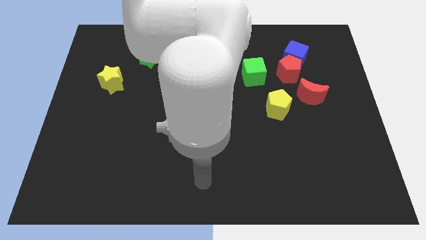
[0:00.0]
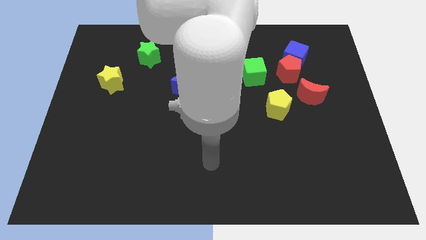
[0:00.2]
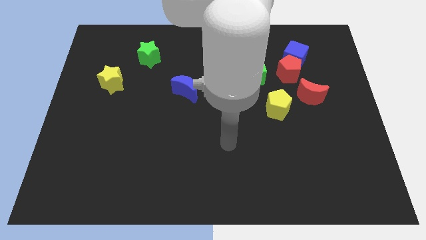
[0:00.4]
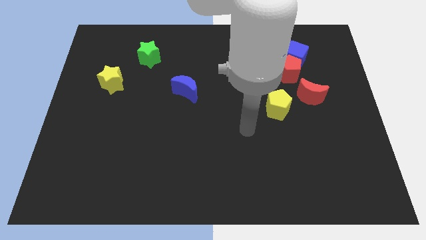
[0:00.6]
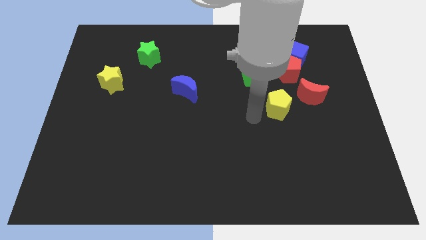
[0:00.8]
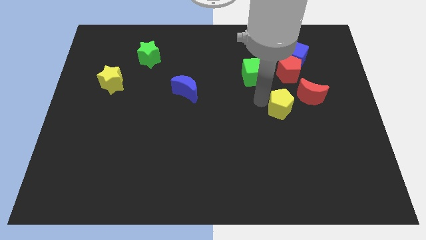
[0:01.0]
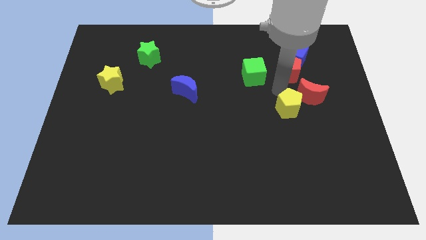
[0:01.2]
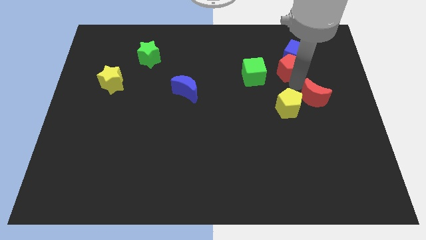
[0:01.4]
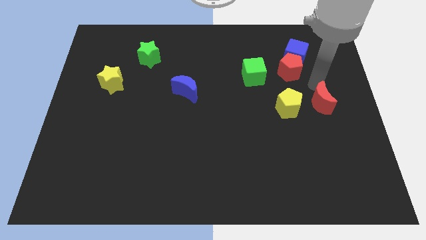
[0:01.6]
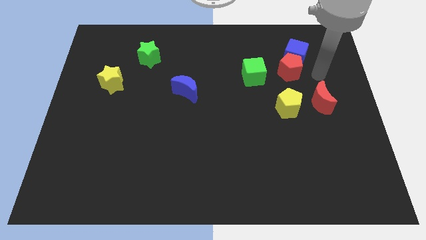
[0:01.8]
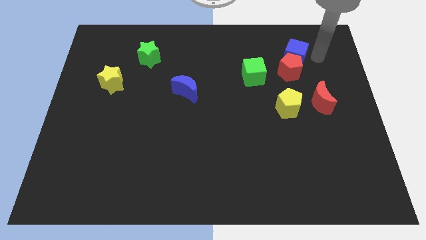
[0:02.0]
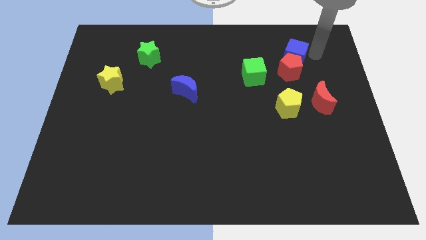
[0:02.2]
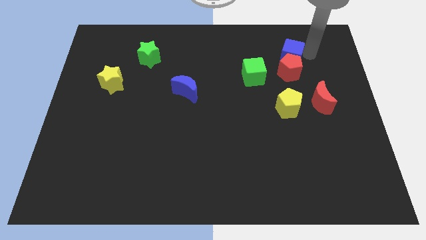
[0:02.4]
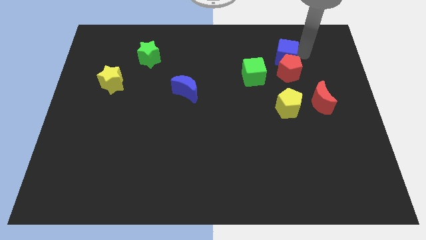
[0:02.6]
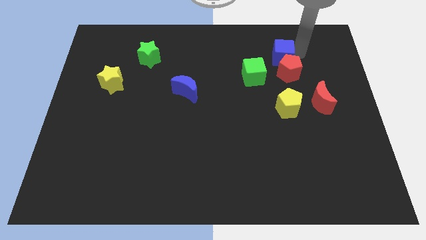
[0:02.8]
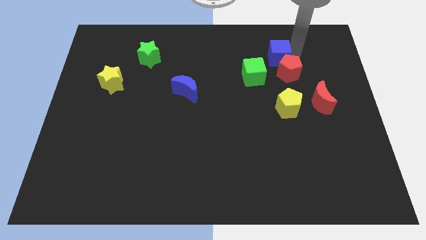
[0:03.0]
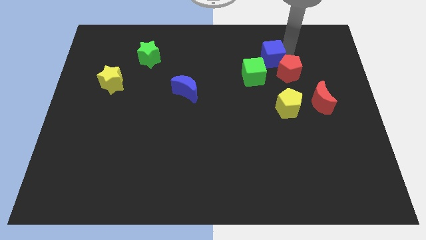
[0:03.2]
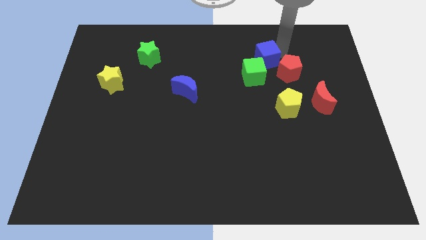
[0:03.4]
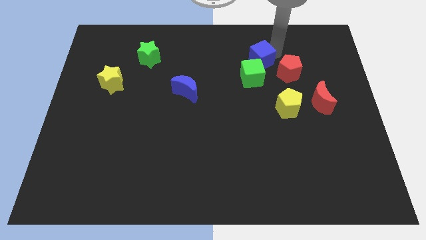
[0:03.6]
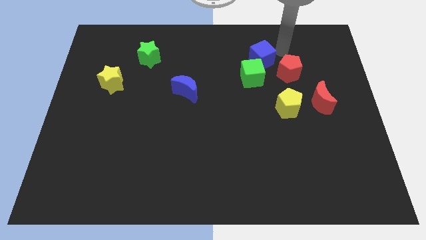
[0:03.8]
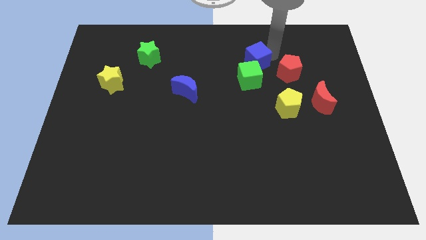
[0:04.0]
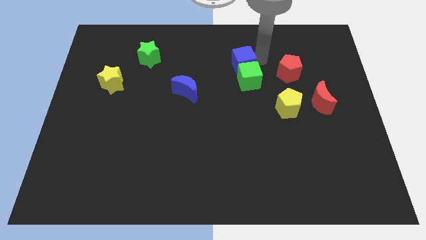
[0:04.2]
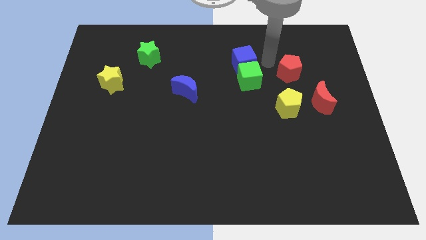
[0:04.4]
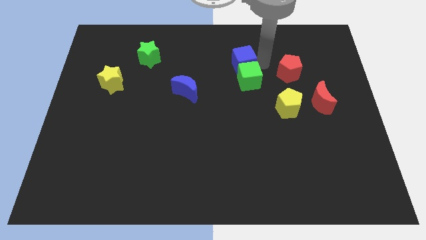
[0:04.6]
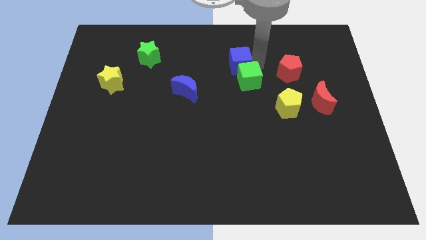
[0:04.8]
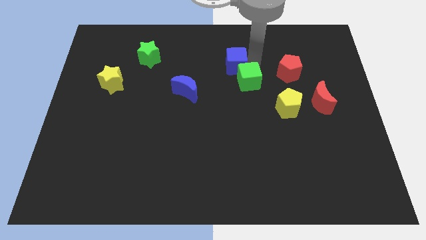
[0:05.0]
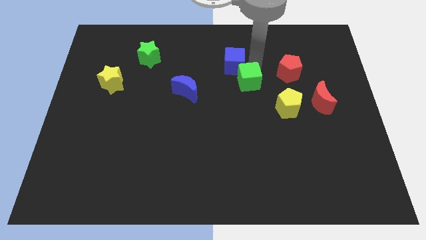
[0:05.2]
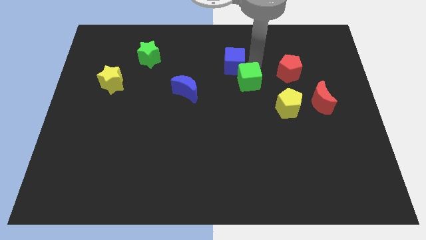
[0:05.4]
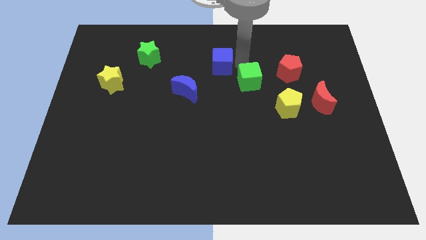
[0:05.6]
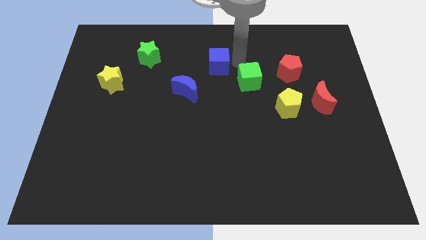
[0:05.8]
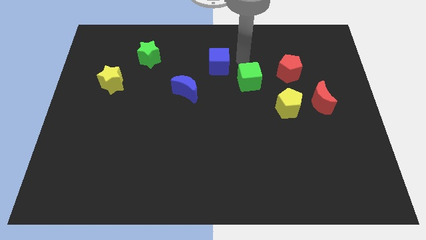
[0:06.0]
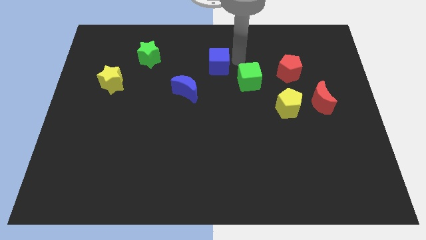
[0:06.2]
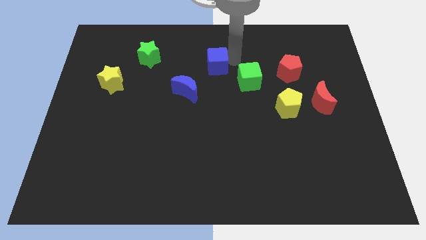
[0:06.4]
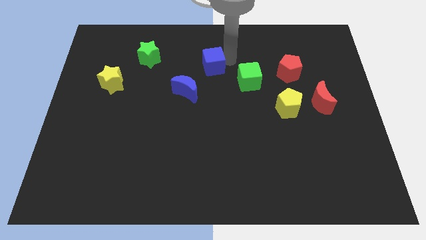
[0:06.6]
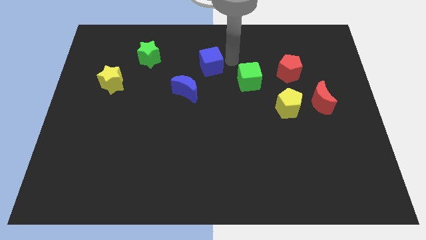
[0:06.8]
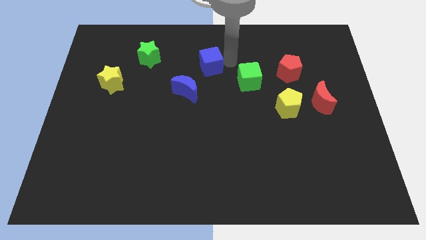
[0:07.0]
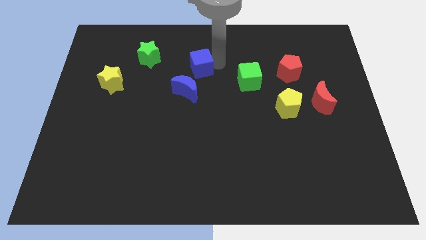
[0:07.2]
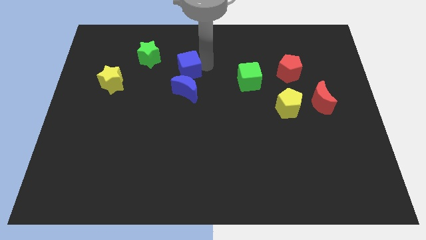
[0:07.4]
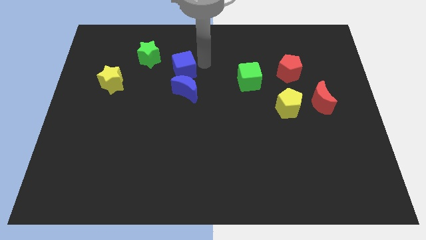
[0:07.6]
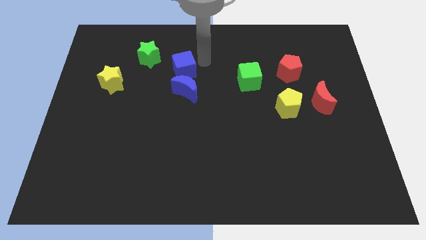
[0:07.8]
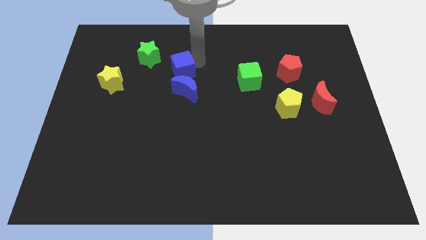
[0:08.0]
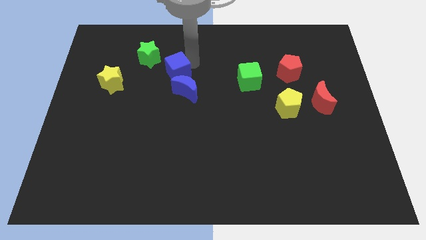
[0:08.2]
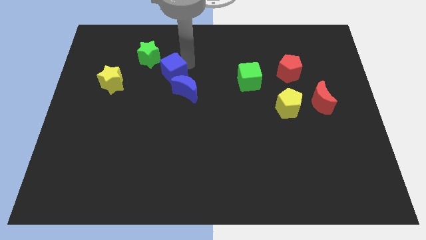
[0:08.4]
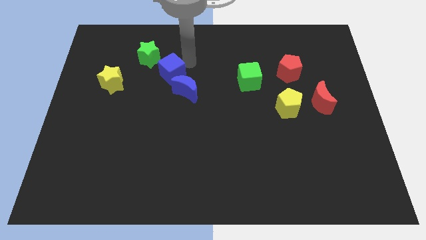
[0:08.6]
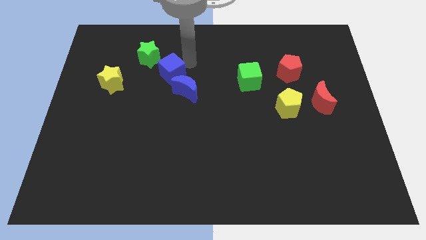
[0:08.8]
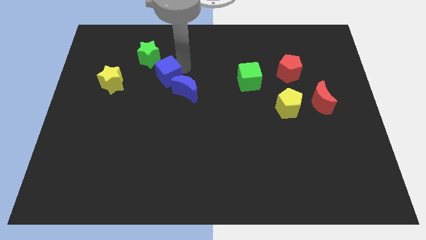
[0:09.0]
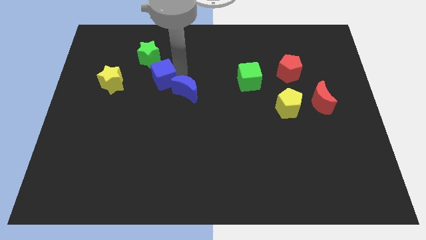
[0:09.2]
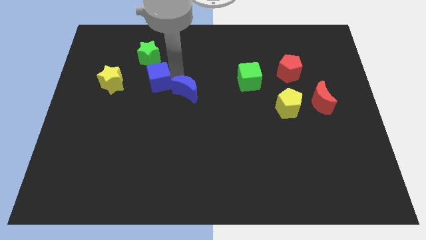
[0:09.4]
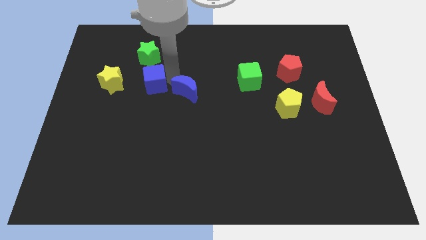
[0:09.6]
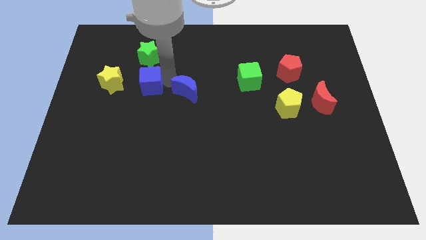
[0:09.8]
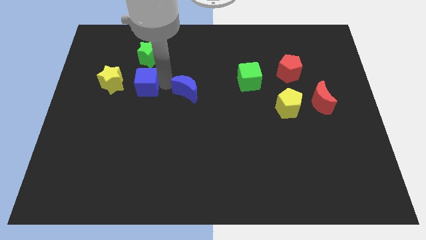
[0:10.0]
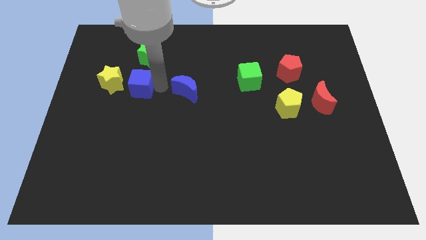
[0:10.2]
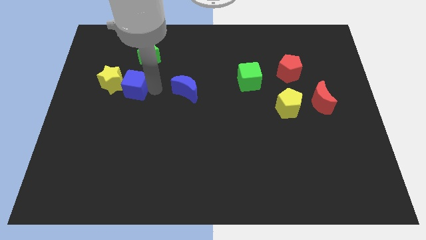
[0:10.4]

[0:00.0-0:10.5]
push the blue cube to the yellow star

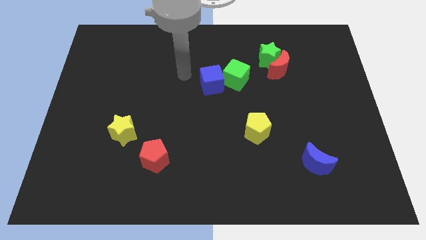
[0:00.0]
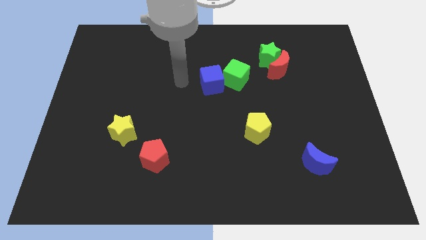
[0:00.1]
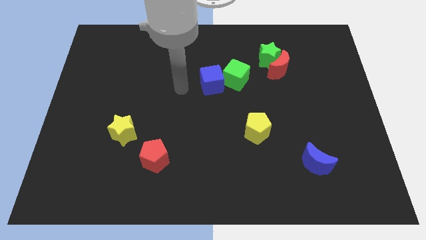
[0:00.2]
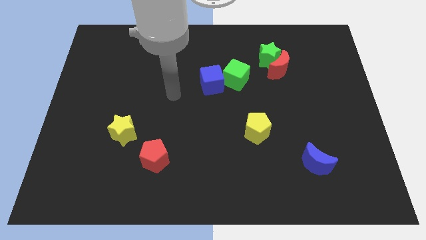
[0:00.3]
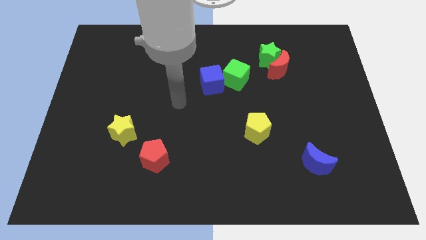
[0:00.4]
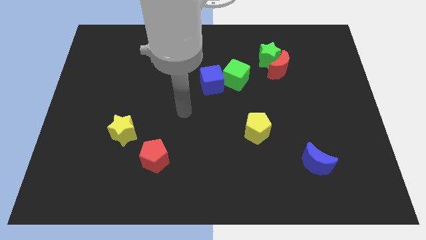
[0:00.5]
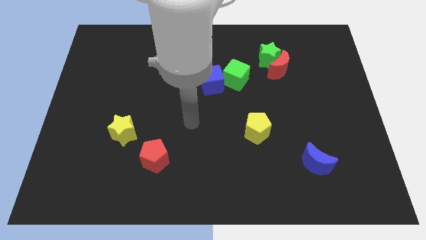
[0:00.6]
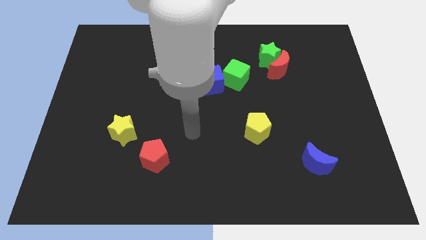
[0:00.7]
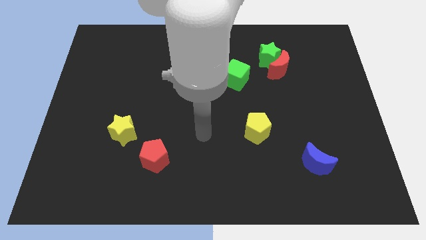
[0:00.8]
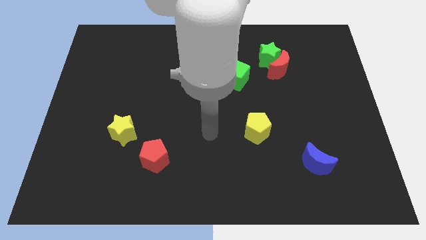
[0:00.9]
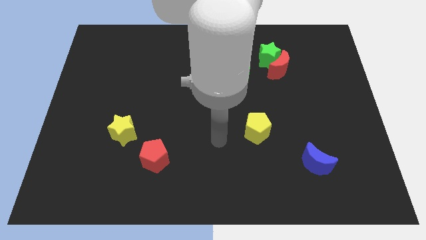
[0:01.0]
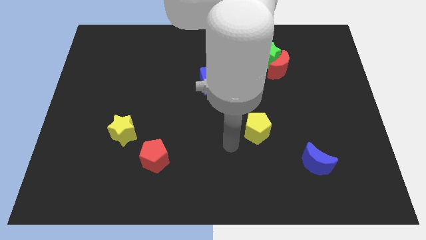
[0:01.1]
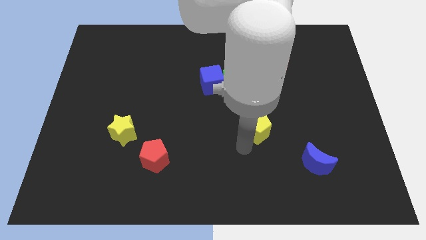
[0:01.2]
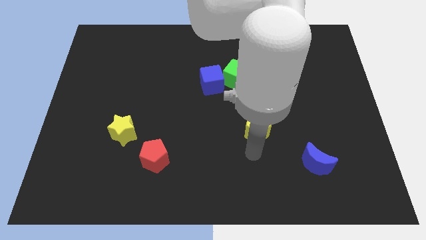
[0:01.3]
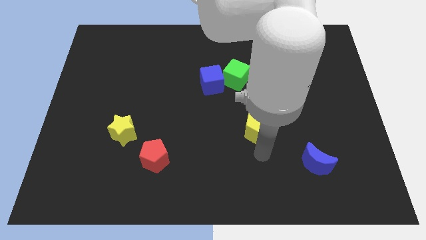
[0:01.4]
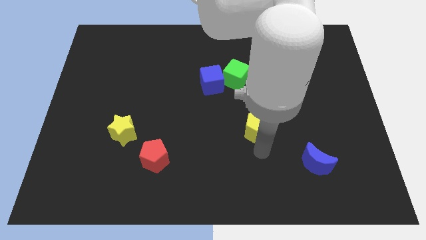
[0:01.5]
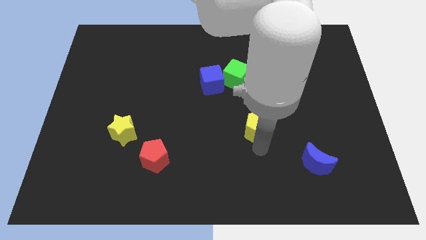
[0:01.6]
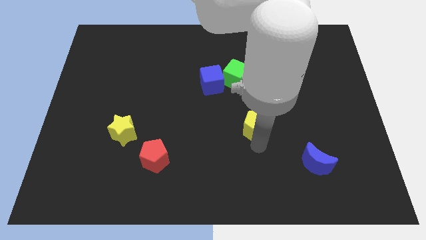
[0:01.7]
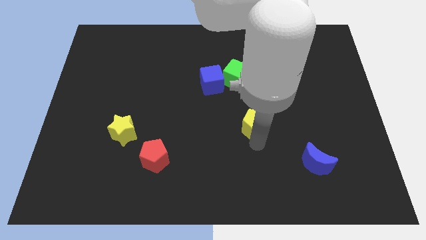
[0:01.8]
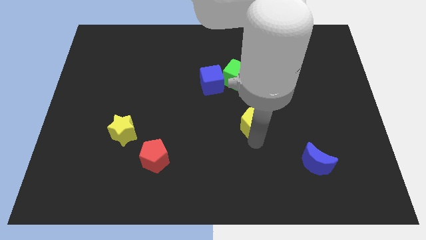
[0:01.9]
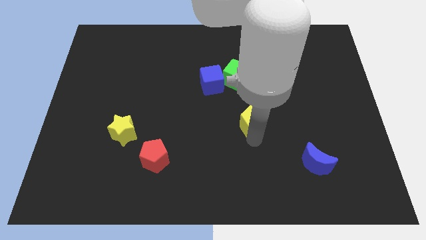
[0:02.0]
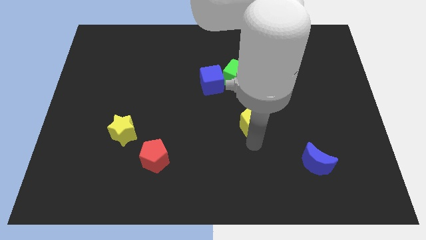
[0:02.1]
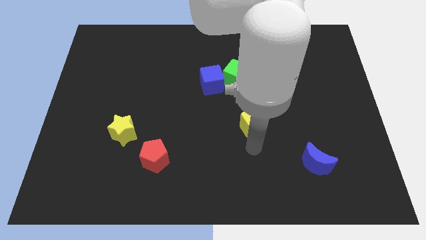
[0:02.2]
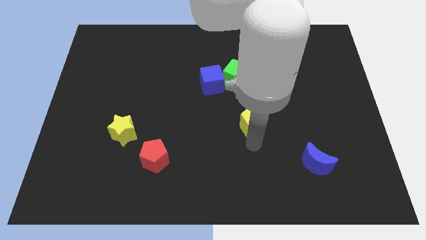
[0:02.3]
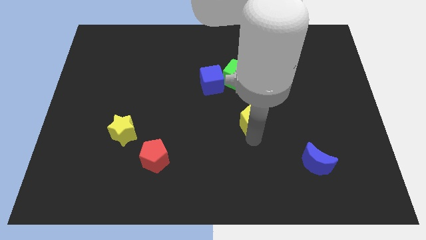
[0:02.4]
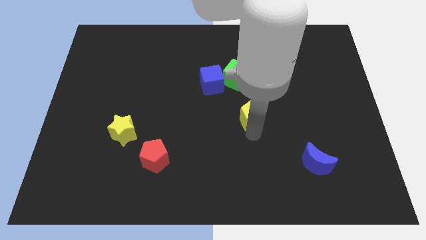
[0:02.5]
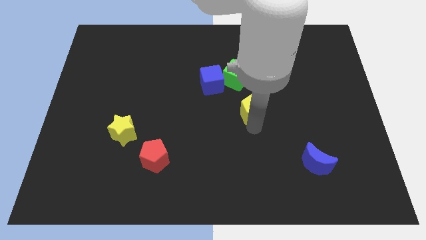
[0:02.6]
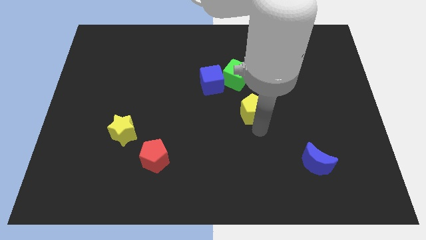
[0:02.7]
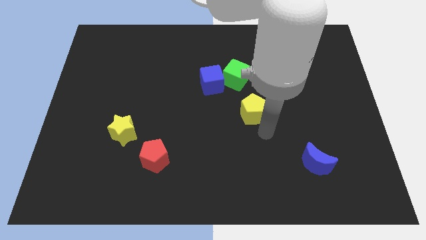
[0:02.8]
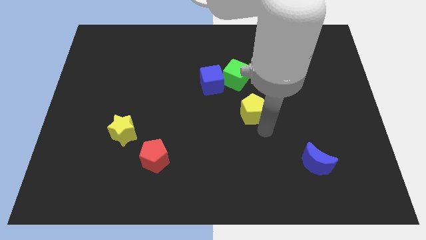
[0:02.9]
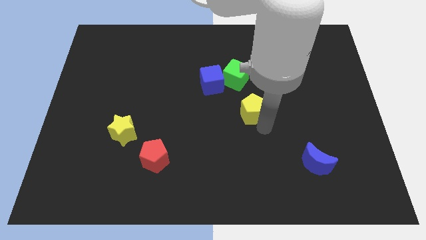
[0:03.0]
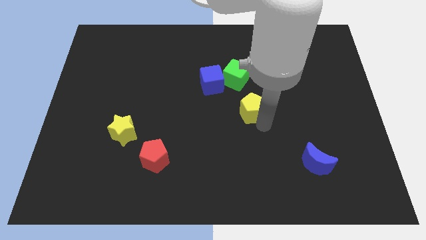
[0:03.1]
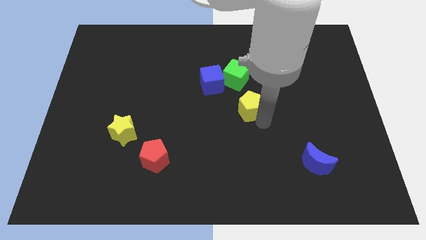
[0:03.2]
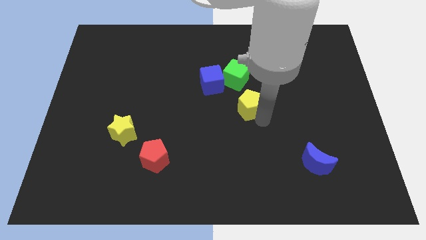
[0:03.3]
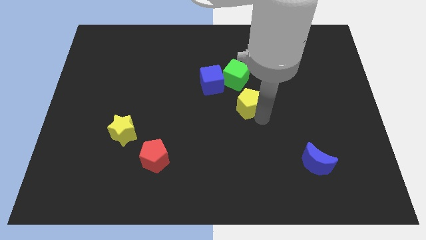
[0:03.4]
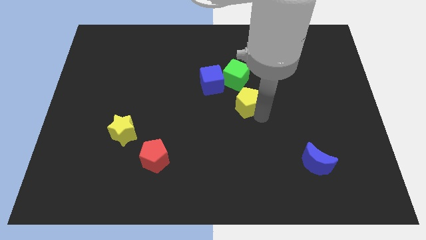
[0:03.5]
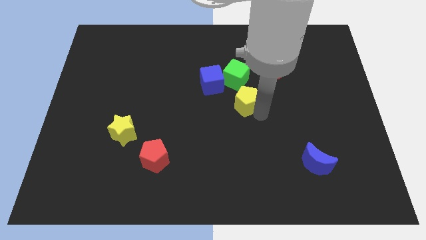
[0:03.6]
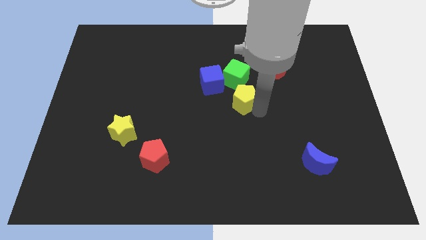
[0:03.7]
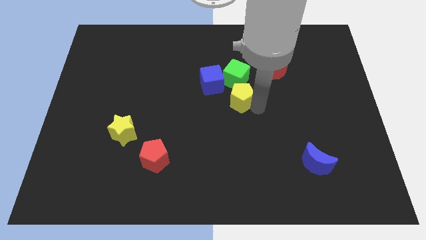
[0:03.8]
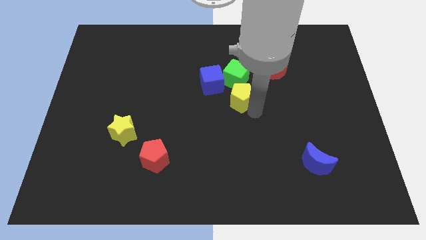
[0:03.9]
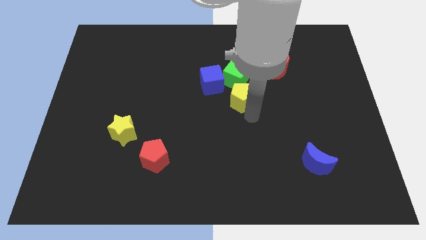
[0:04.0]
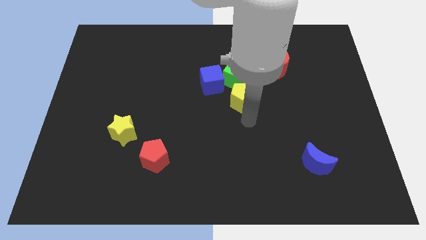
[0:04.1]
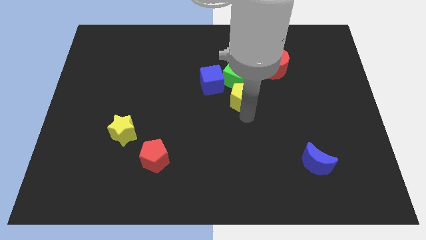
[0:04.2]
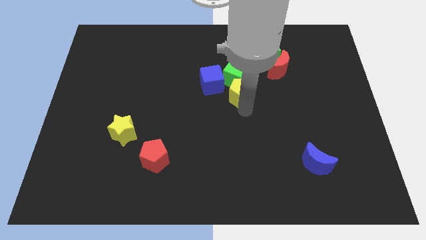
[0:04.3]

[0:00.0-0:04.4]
put the yellow pentagon next to the green cube
